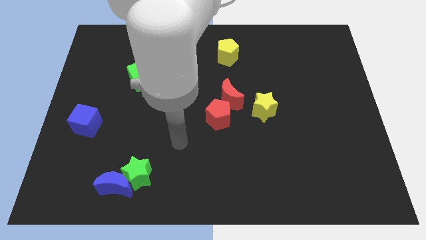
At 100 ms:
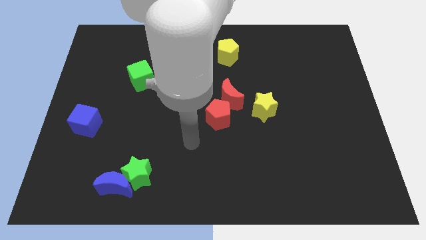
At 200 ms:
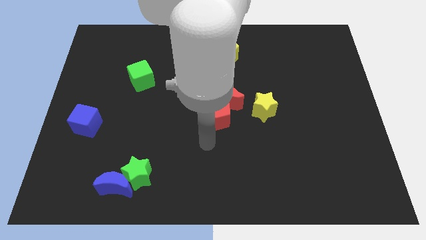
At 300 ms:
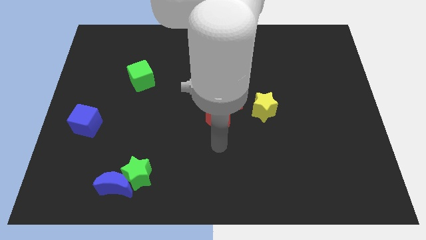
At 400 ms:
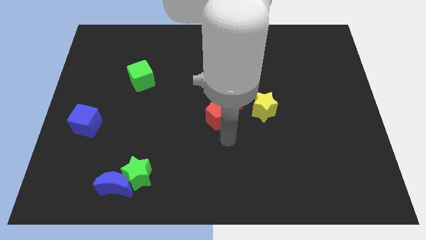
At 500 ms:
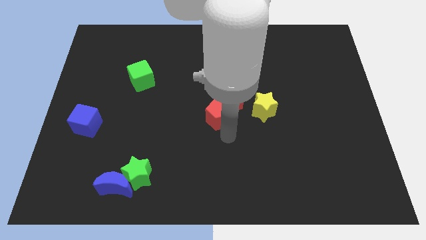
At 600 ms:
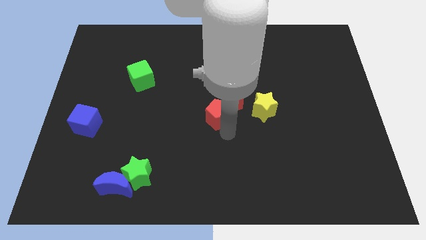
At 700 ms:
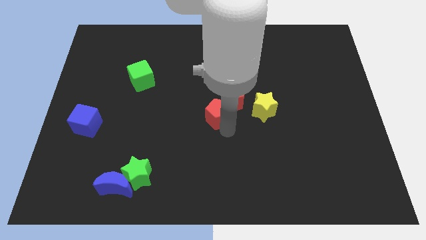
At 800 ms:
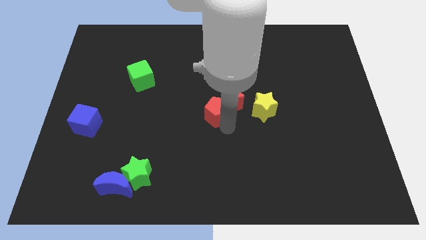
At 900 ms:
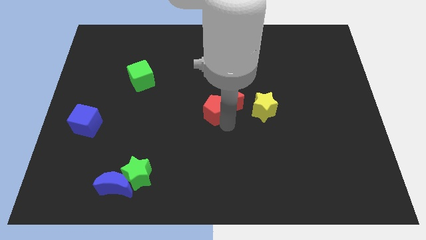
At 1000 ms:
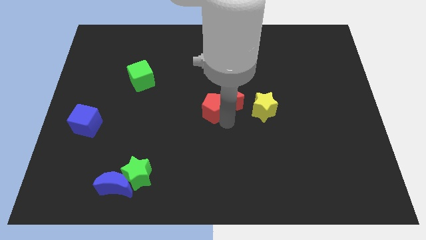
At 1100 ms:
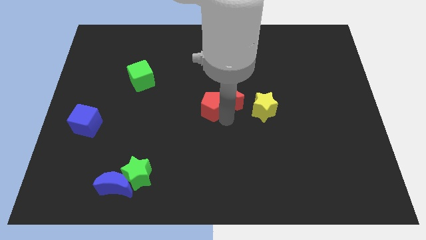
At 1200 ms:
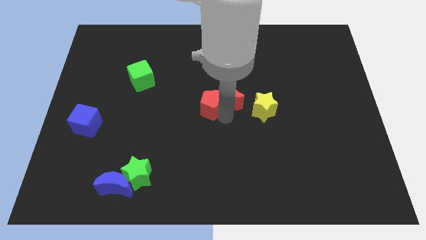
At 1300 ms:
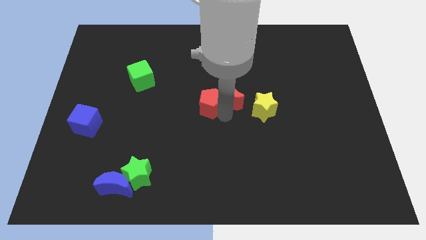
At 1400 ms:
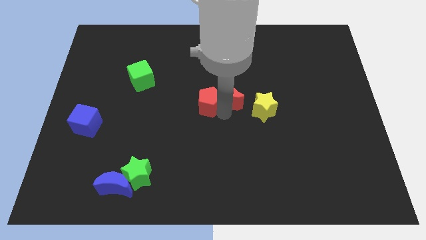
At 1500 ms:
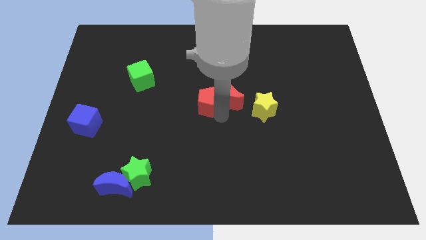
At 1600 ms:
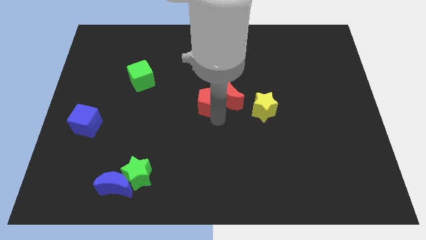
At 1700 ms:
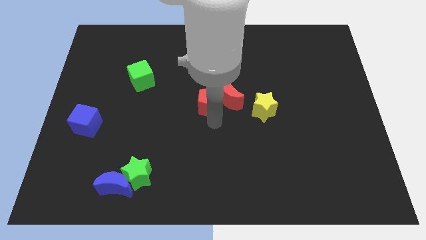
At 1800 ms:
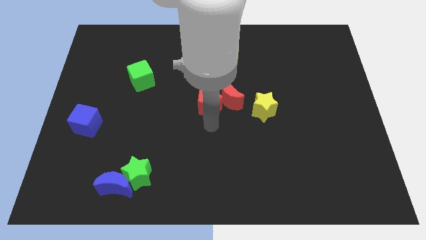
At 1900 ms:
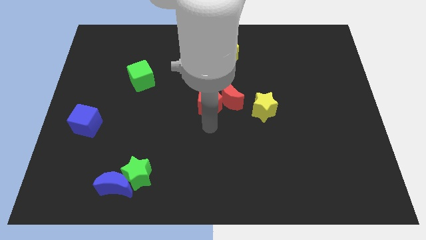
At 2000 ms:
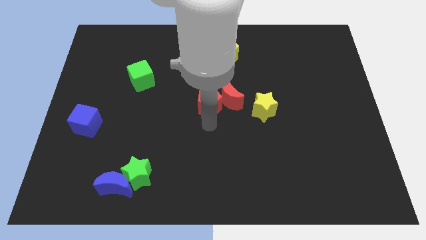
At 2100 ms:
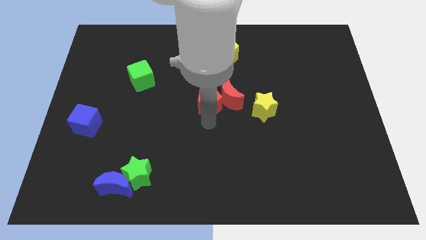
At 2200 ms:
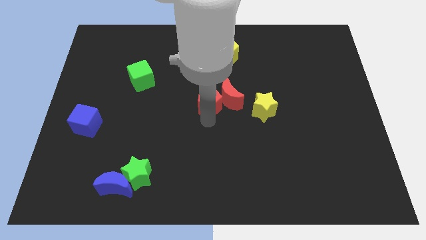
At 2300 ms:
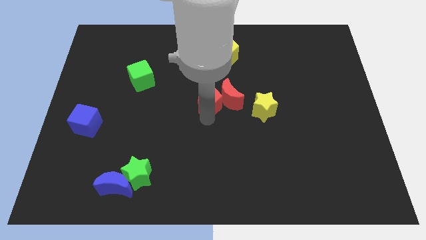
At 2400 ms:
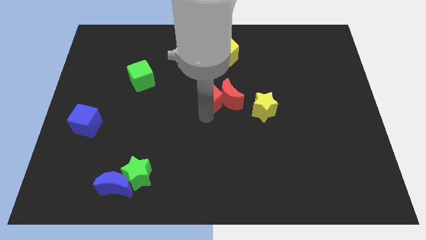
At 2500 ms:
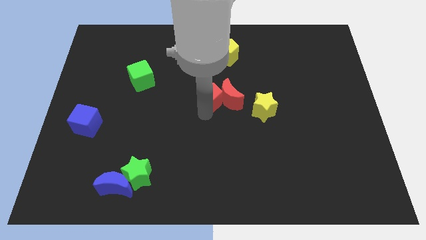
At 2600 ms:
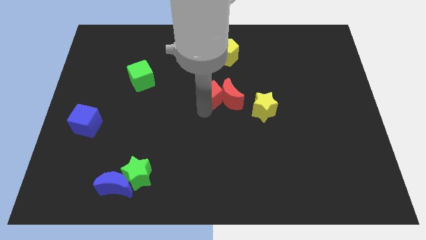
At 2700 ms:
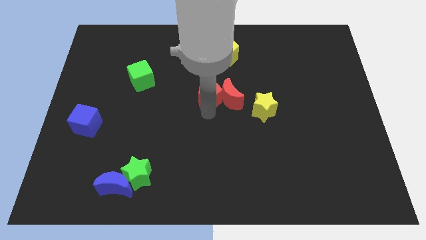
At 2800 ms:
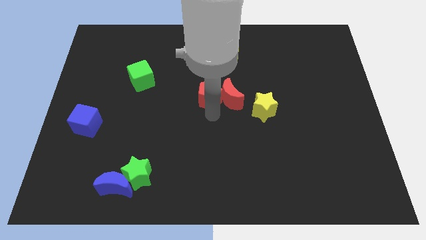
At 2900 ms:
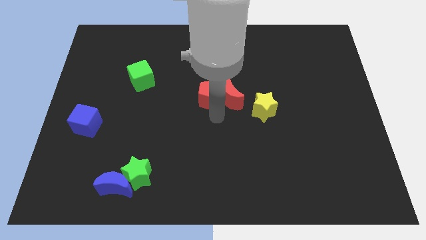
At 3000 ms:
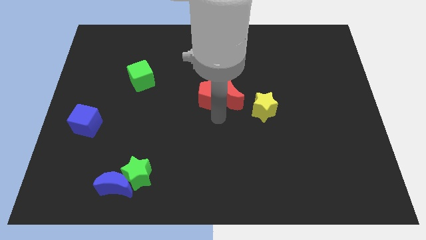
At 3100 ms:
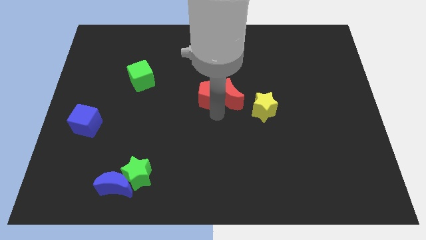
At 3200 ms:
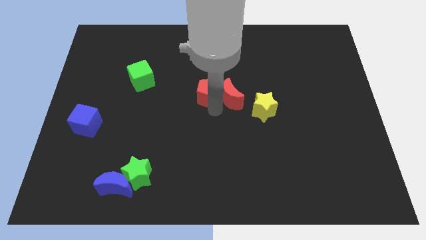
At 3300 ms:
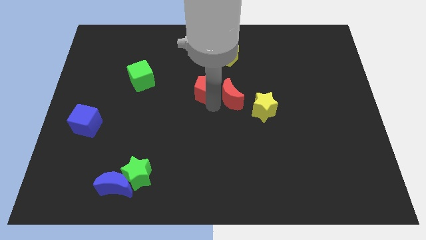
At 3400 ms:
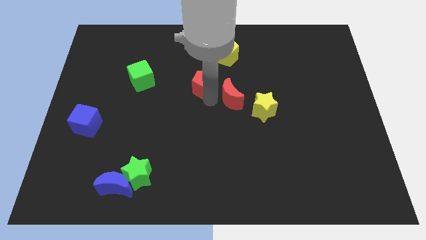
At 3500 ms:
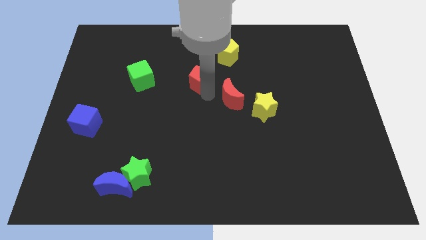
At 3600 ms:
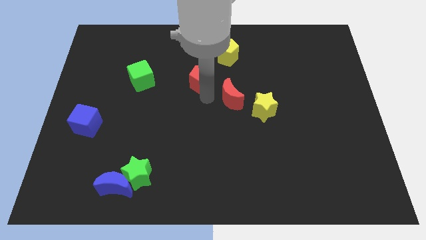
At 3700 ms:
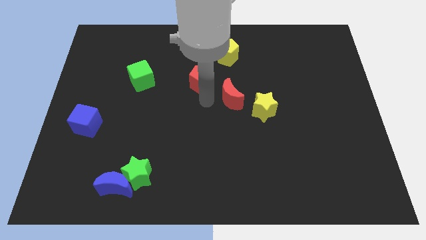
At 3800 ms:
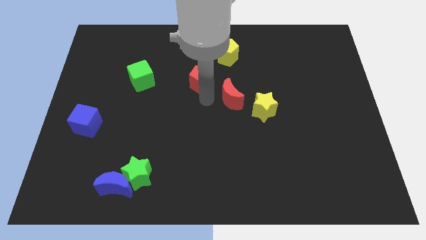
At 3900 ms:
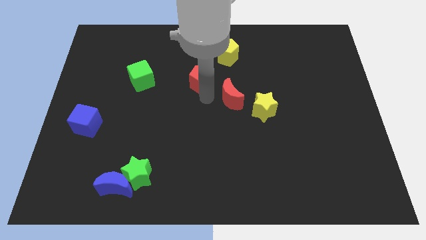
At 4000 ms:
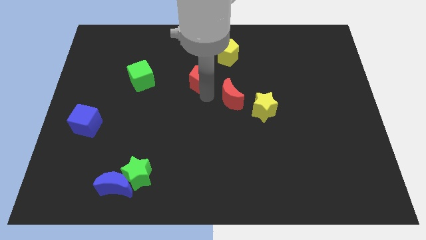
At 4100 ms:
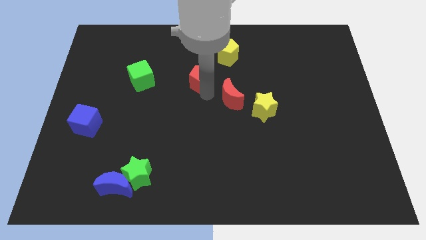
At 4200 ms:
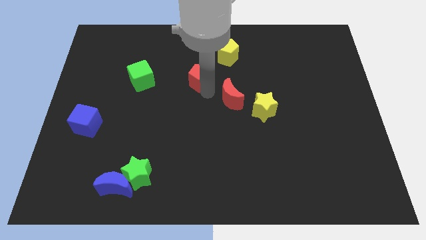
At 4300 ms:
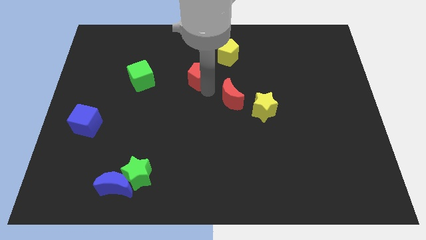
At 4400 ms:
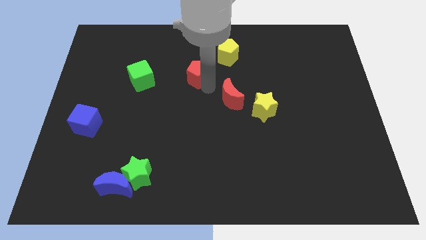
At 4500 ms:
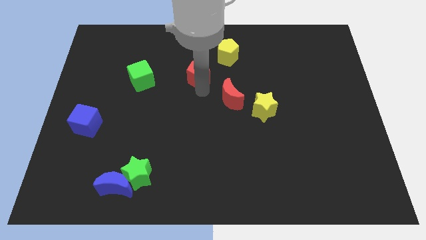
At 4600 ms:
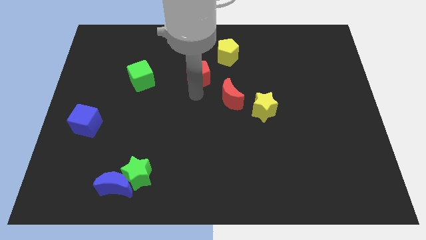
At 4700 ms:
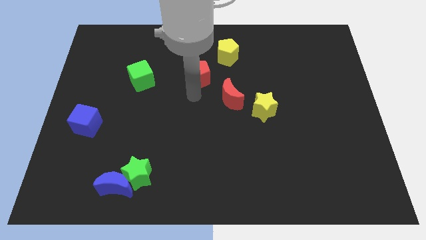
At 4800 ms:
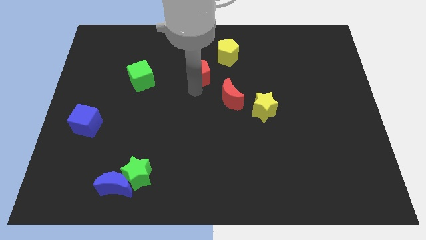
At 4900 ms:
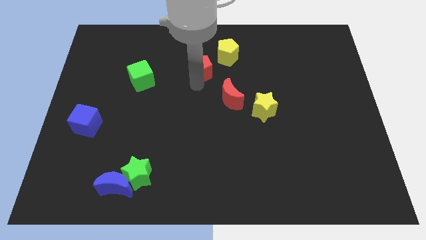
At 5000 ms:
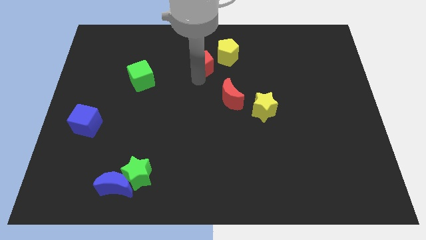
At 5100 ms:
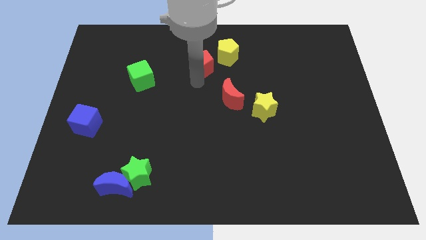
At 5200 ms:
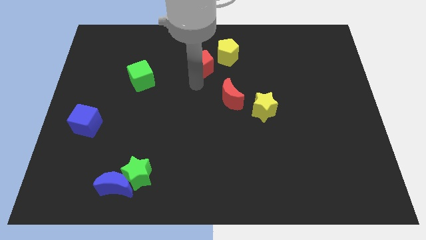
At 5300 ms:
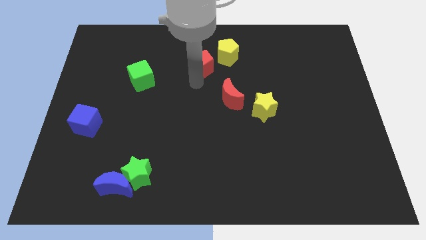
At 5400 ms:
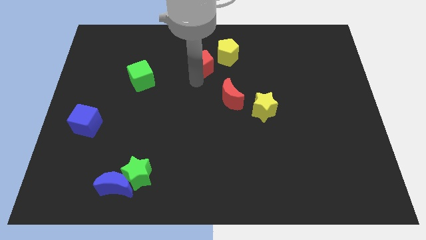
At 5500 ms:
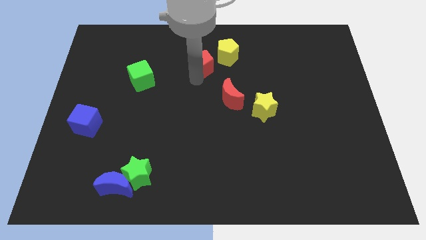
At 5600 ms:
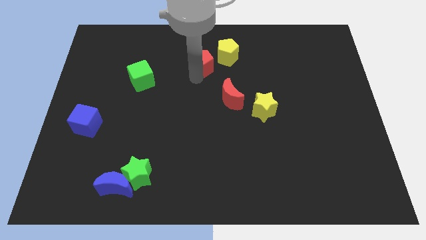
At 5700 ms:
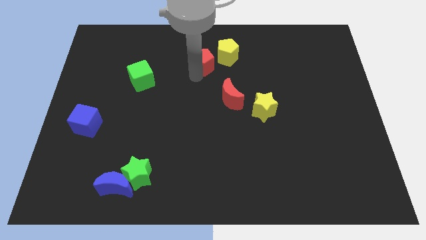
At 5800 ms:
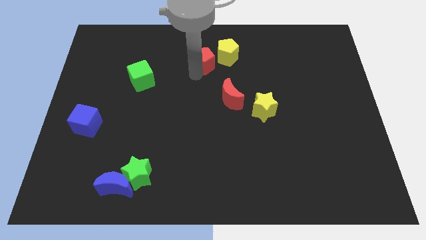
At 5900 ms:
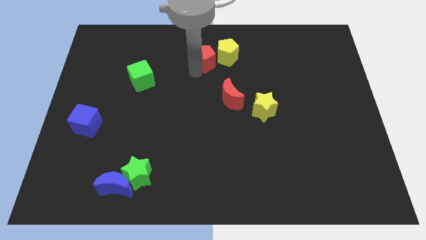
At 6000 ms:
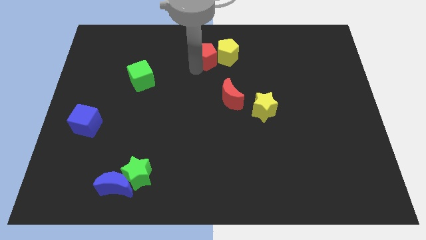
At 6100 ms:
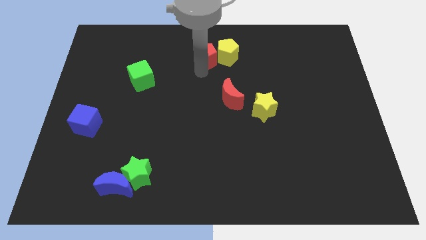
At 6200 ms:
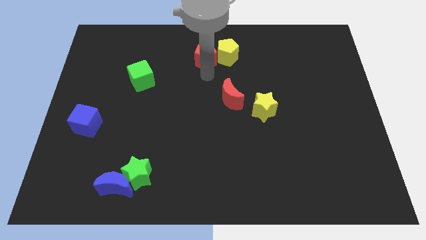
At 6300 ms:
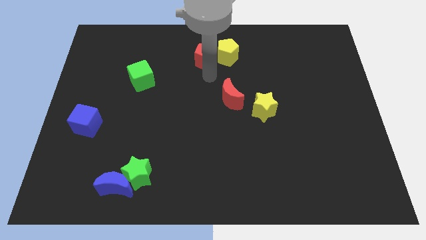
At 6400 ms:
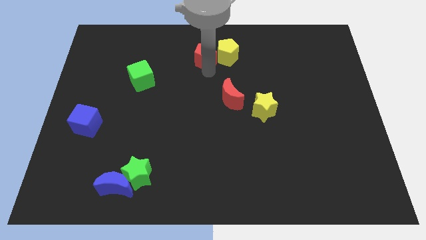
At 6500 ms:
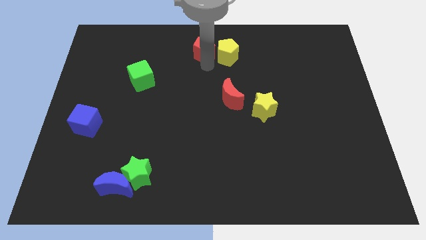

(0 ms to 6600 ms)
move the red pentagon to the top side
